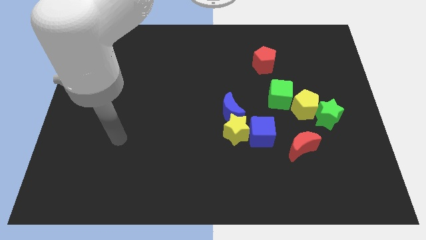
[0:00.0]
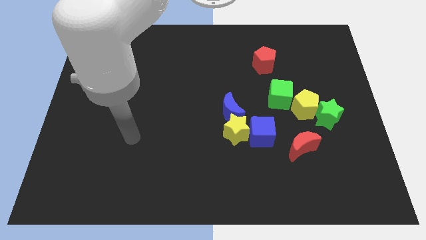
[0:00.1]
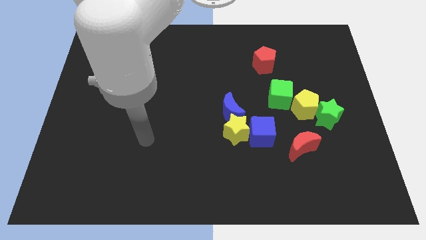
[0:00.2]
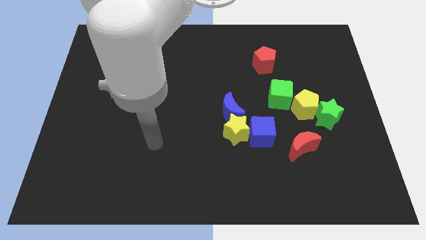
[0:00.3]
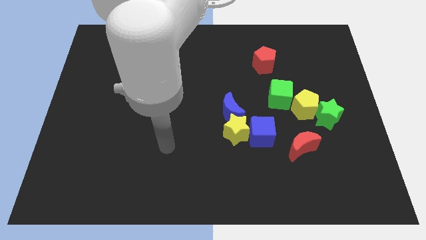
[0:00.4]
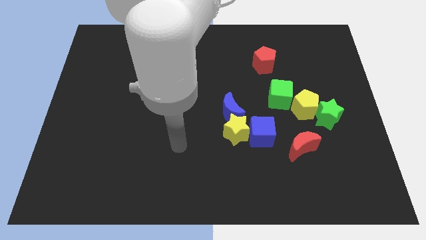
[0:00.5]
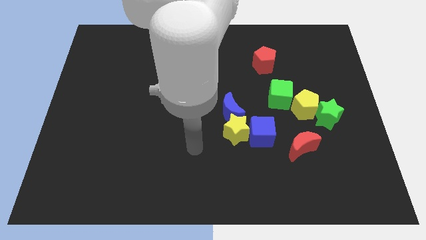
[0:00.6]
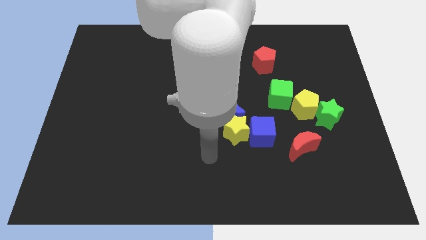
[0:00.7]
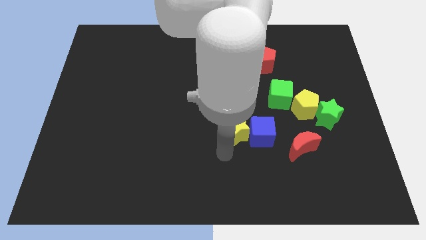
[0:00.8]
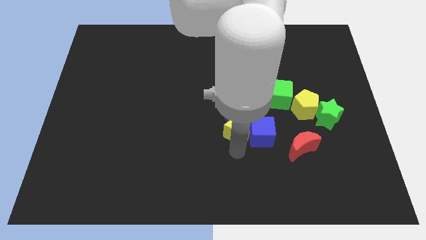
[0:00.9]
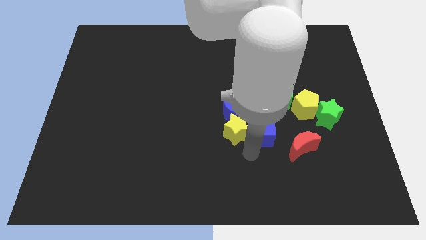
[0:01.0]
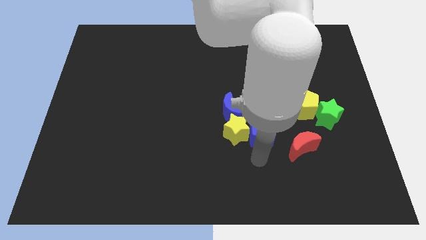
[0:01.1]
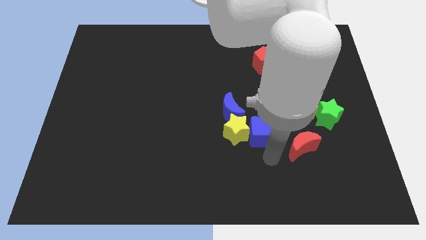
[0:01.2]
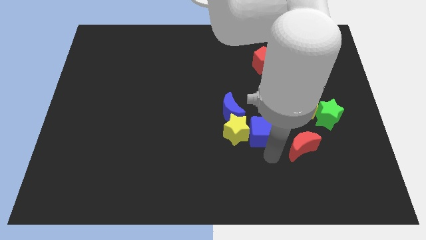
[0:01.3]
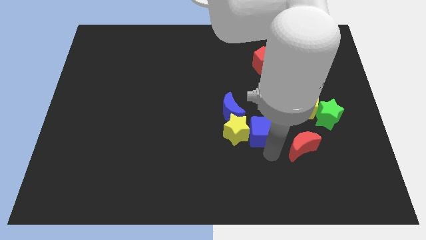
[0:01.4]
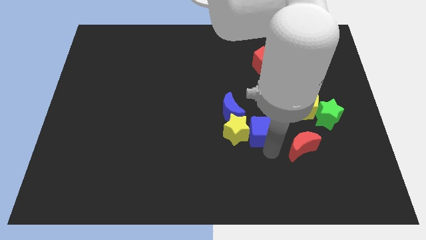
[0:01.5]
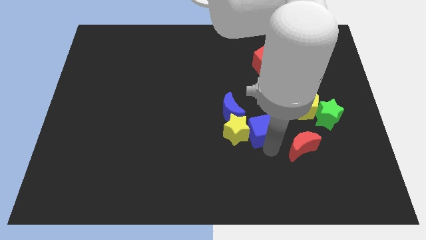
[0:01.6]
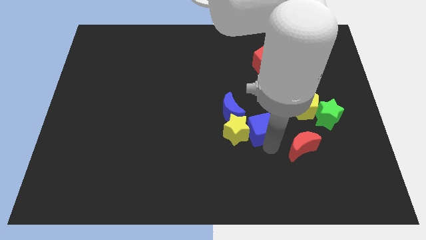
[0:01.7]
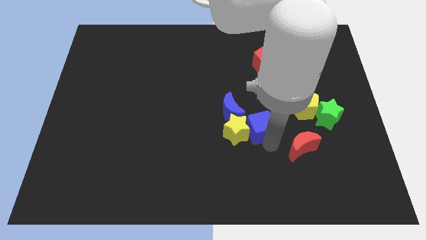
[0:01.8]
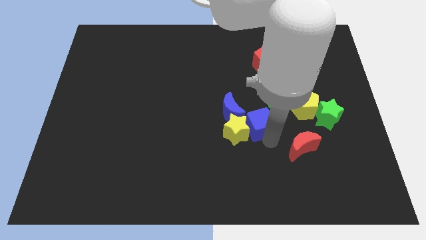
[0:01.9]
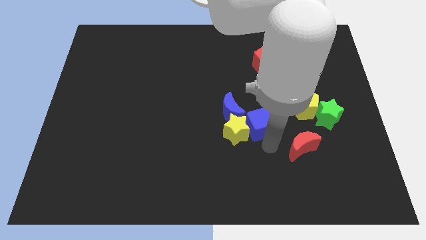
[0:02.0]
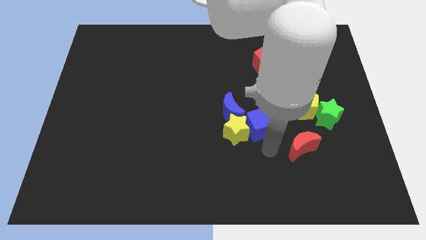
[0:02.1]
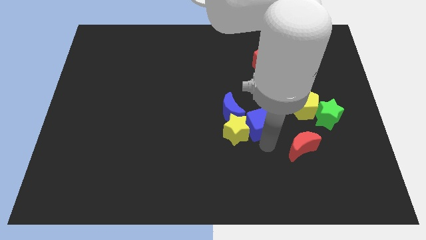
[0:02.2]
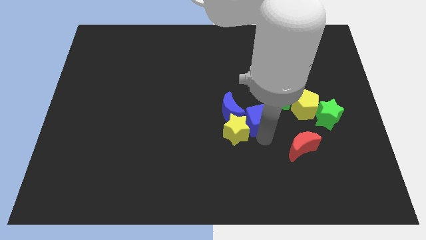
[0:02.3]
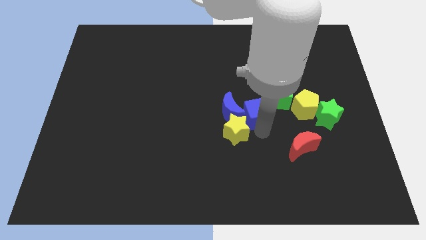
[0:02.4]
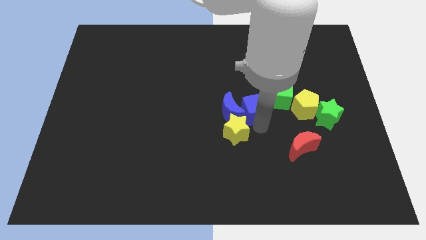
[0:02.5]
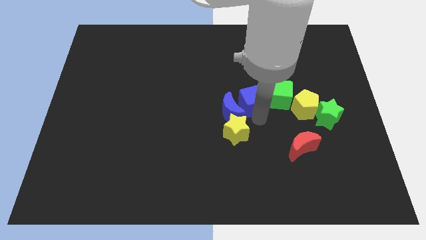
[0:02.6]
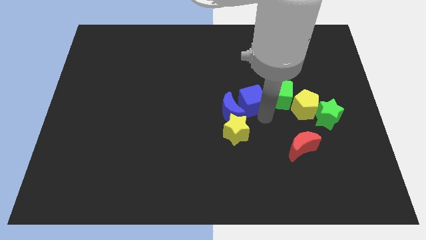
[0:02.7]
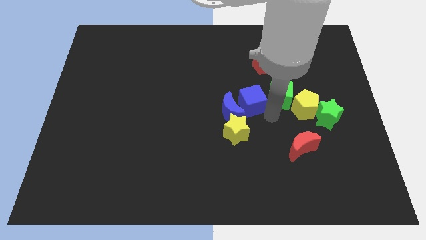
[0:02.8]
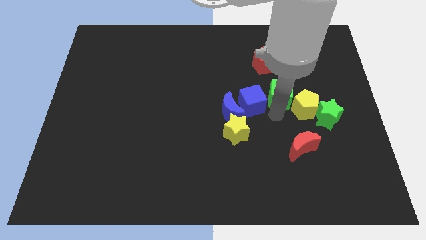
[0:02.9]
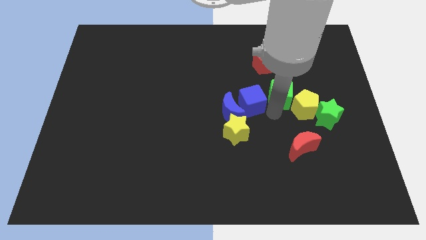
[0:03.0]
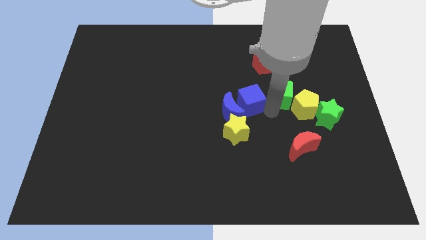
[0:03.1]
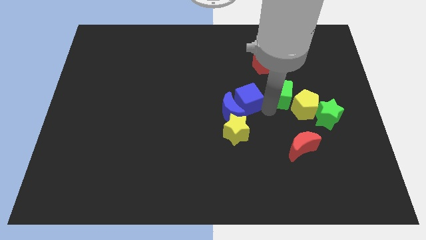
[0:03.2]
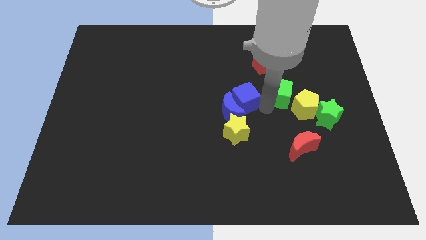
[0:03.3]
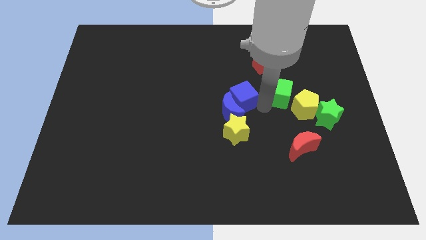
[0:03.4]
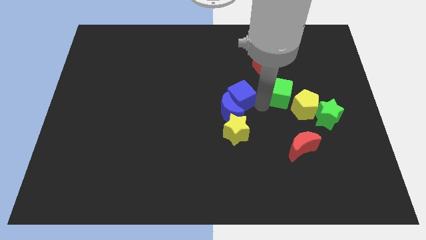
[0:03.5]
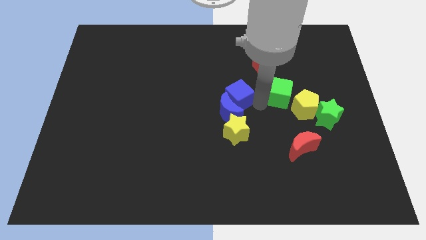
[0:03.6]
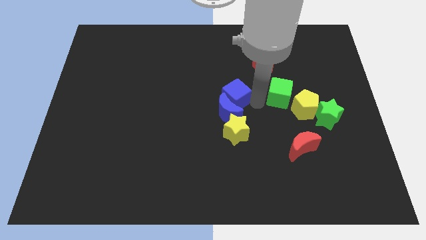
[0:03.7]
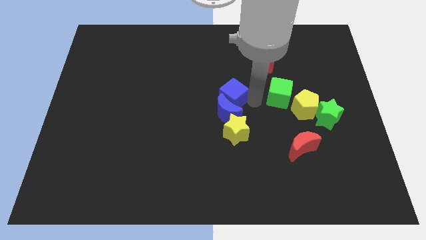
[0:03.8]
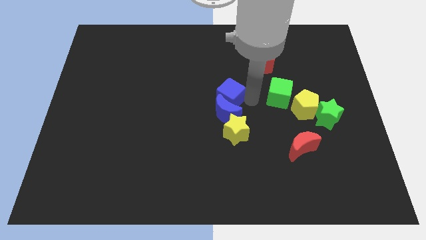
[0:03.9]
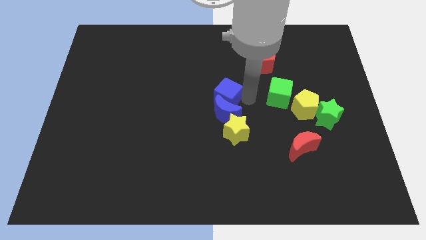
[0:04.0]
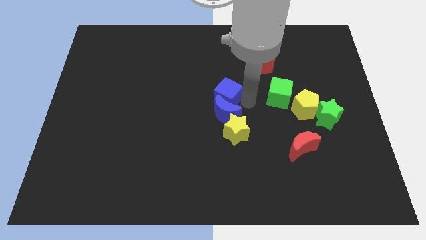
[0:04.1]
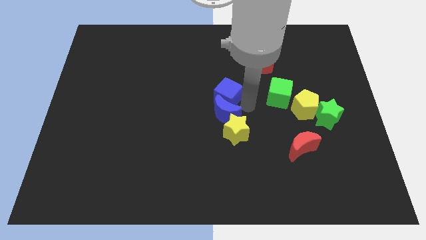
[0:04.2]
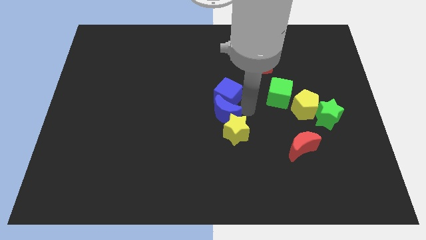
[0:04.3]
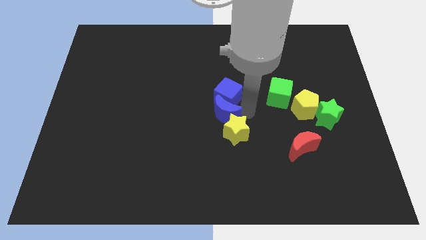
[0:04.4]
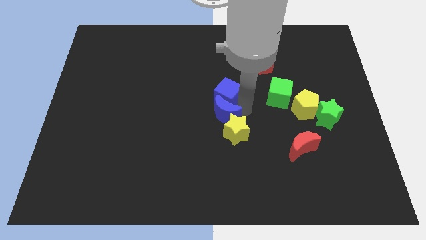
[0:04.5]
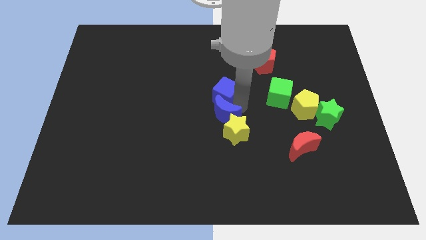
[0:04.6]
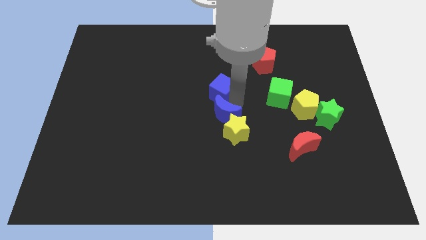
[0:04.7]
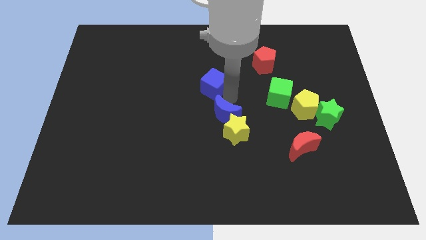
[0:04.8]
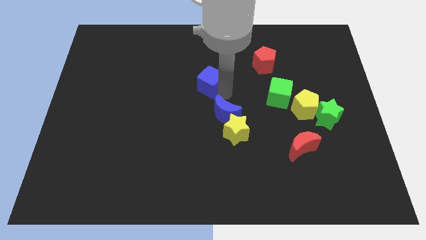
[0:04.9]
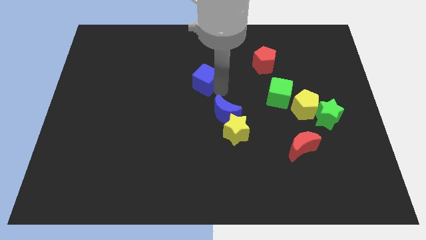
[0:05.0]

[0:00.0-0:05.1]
slide the blue cube diagonally up and left

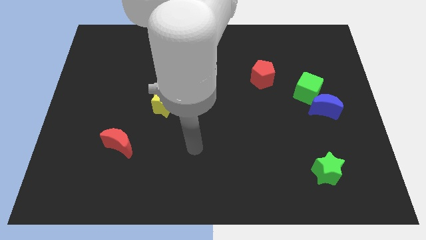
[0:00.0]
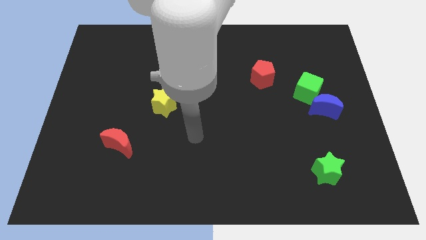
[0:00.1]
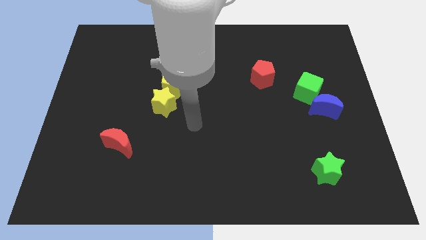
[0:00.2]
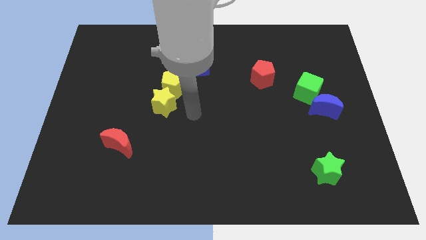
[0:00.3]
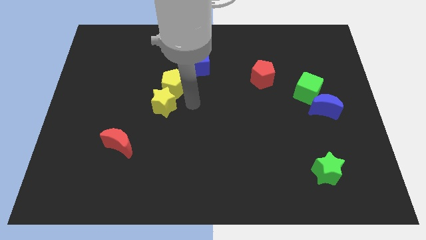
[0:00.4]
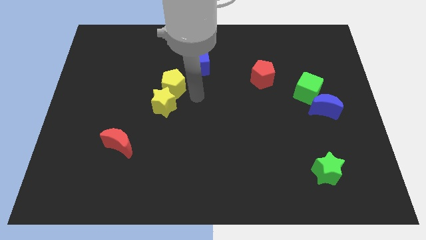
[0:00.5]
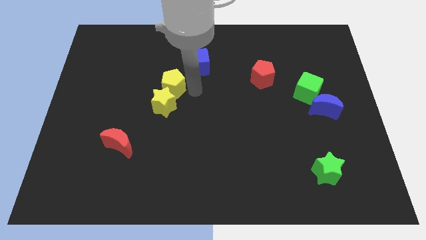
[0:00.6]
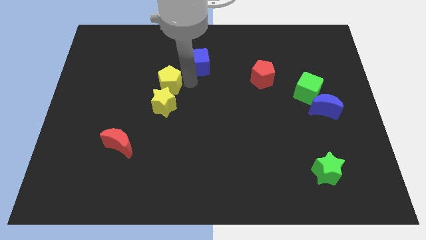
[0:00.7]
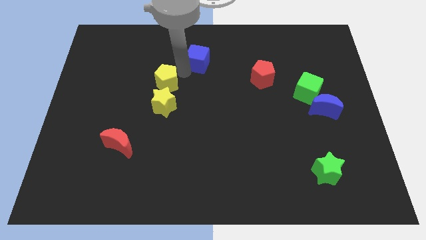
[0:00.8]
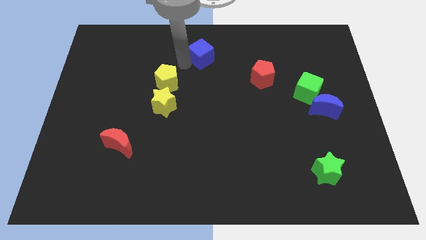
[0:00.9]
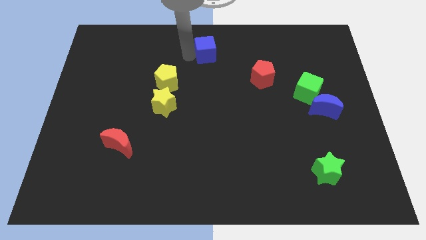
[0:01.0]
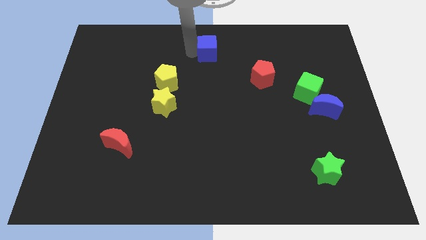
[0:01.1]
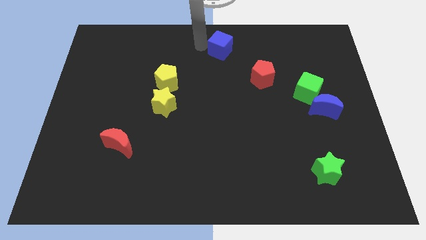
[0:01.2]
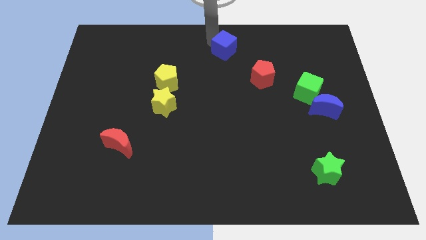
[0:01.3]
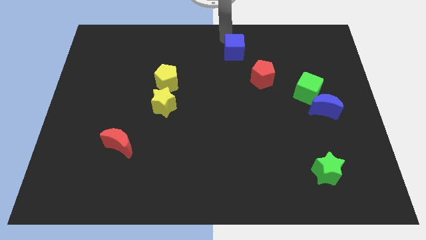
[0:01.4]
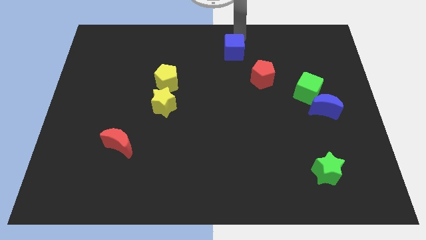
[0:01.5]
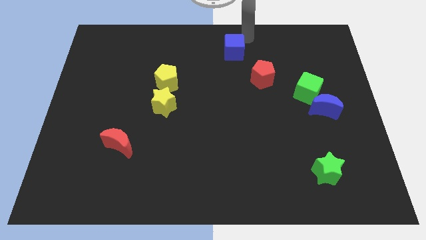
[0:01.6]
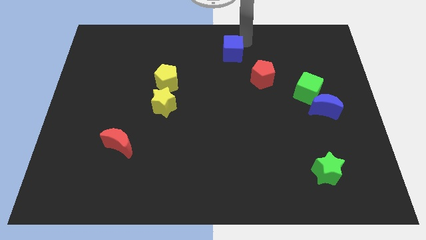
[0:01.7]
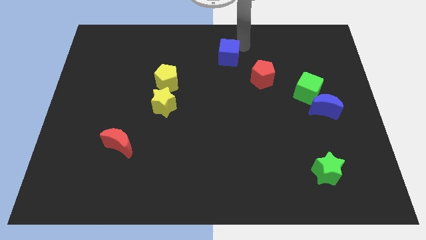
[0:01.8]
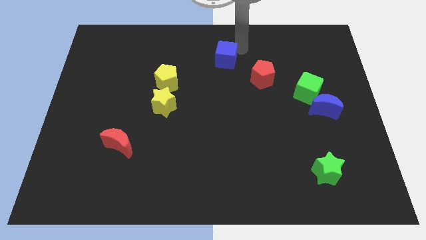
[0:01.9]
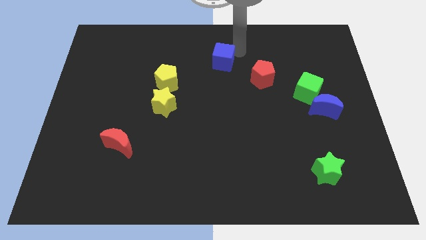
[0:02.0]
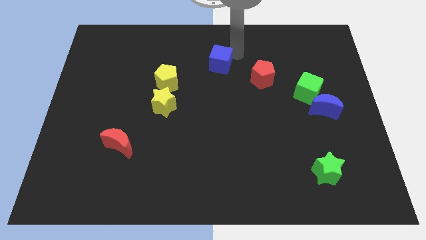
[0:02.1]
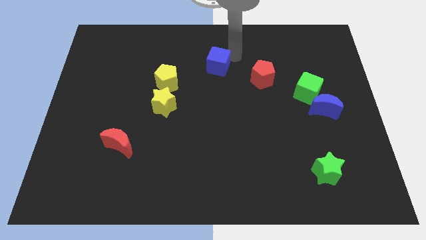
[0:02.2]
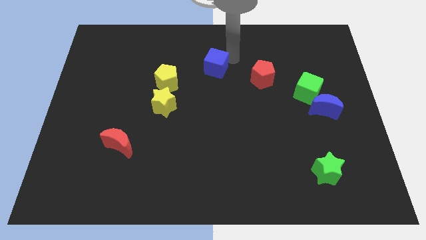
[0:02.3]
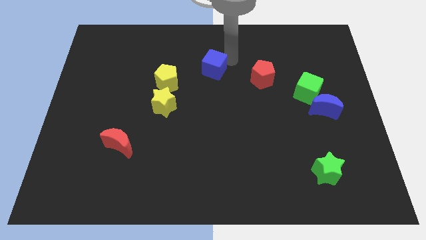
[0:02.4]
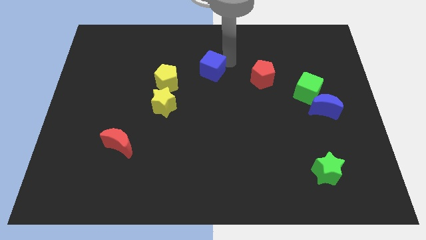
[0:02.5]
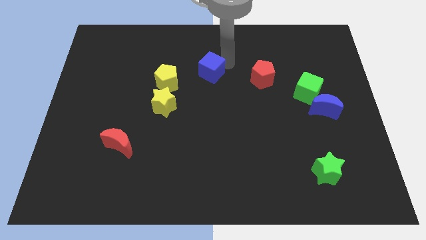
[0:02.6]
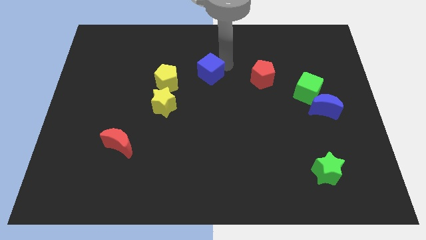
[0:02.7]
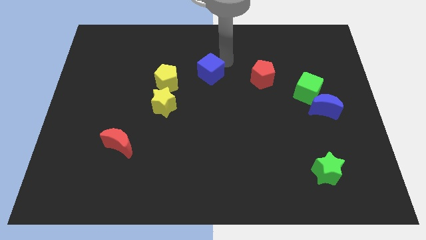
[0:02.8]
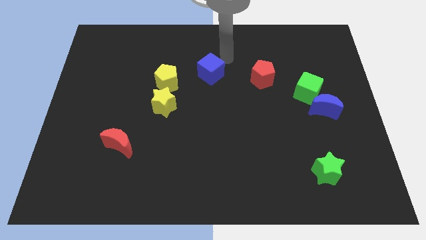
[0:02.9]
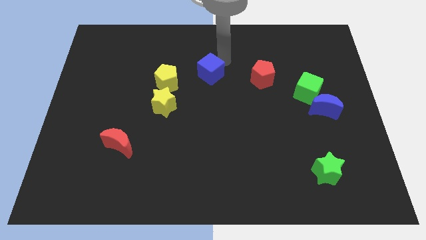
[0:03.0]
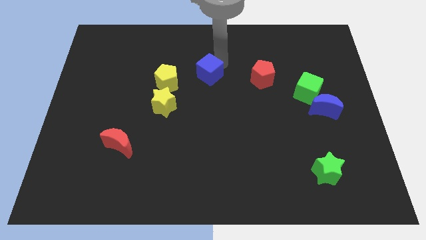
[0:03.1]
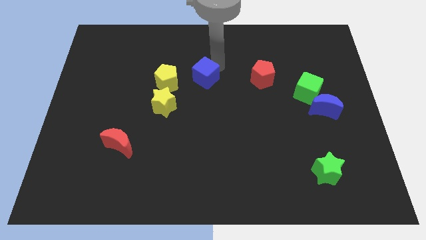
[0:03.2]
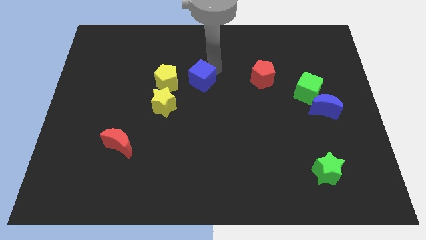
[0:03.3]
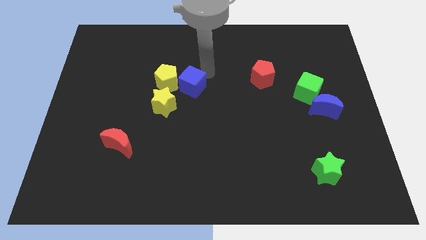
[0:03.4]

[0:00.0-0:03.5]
slide the blue cube downwards a bit
